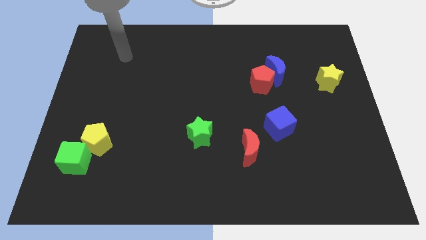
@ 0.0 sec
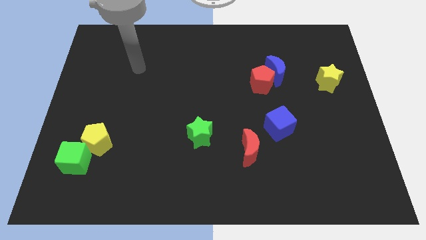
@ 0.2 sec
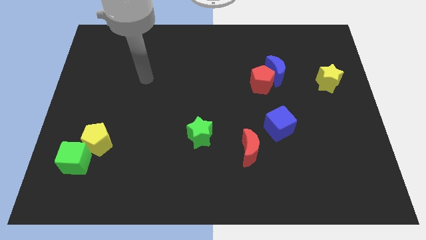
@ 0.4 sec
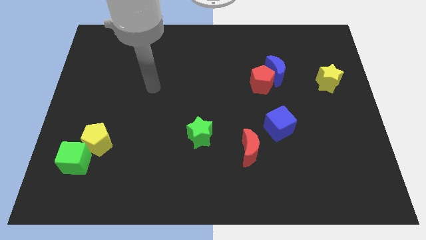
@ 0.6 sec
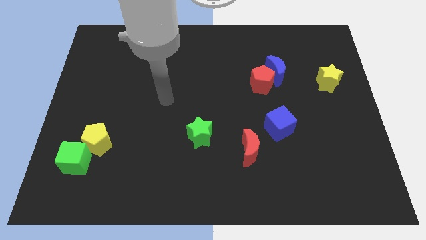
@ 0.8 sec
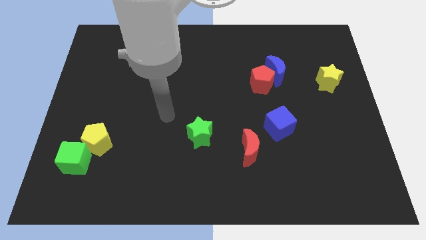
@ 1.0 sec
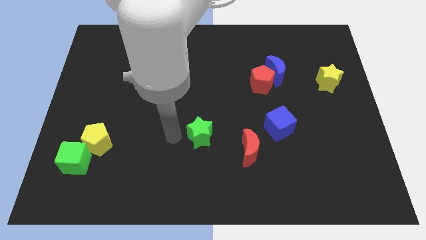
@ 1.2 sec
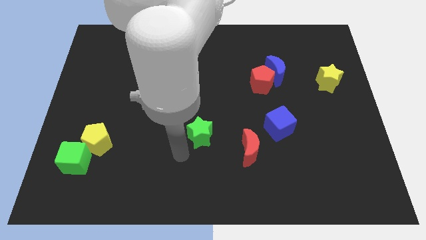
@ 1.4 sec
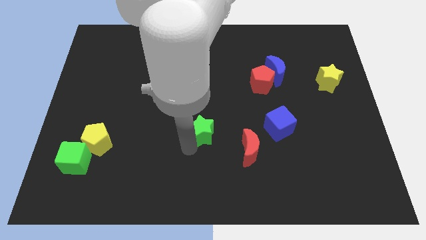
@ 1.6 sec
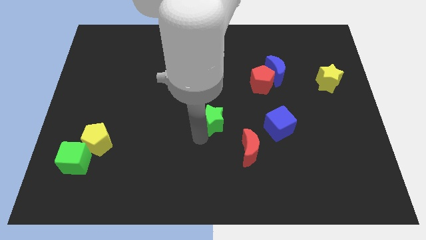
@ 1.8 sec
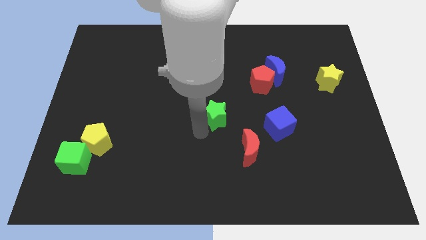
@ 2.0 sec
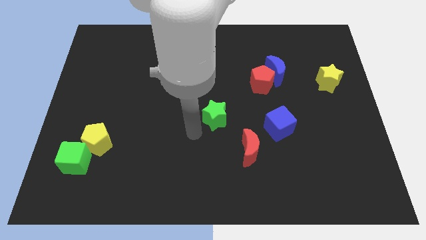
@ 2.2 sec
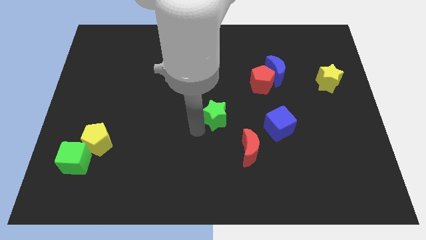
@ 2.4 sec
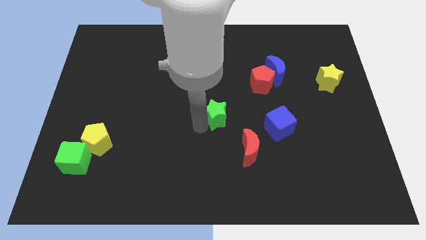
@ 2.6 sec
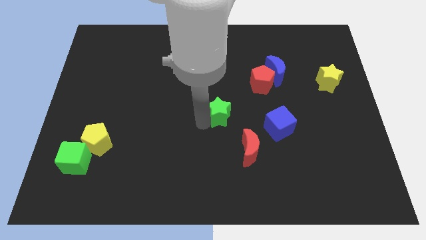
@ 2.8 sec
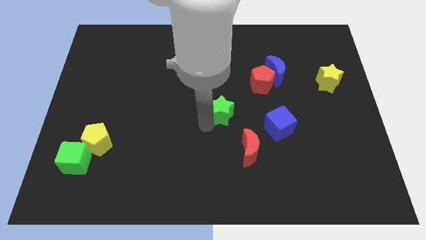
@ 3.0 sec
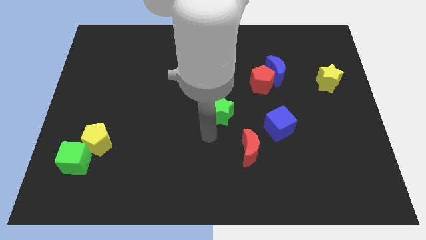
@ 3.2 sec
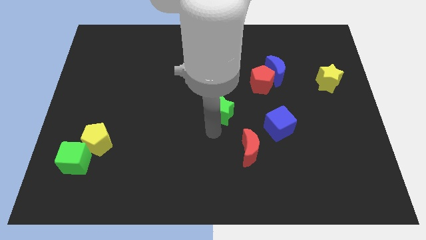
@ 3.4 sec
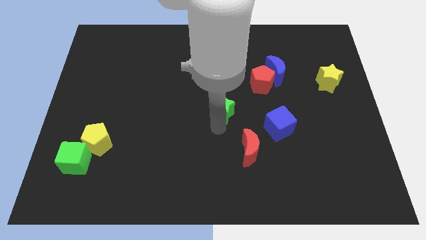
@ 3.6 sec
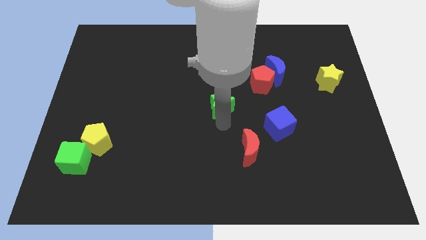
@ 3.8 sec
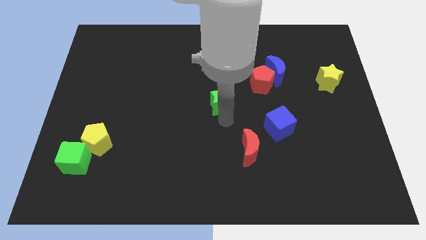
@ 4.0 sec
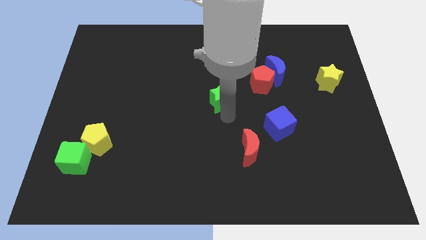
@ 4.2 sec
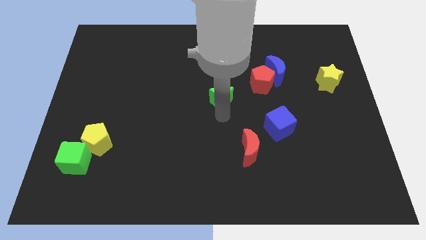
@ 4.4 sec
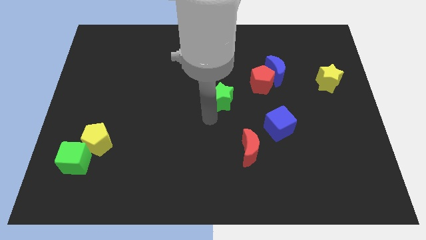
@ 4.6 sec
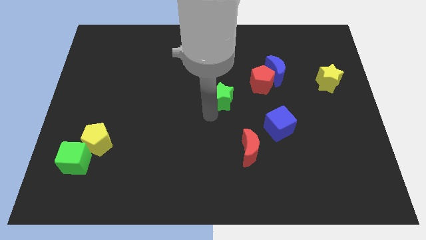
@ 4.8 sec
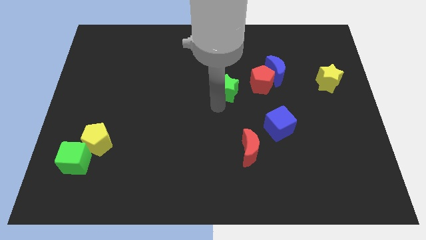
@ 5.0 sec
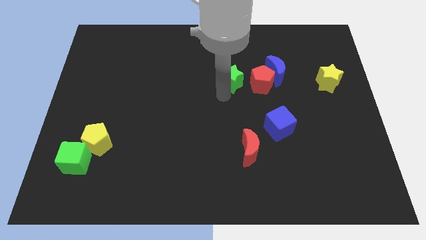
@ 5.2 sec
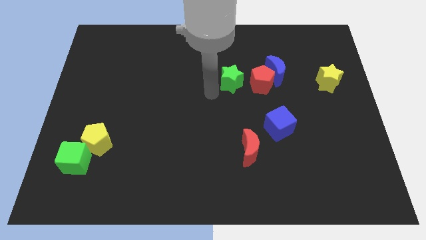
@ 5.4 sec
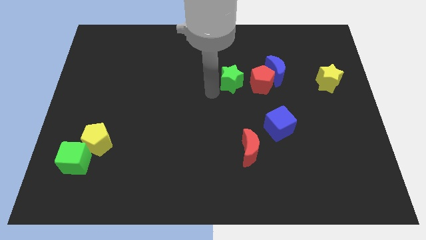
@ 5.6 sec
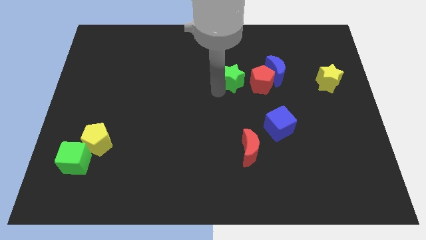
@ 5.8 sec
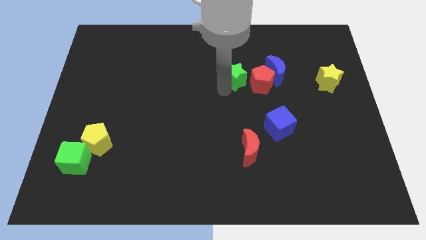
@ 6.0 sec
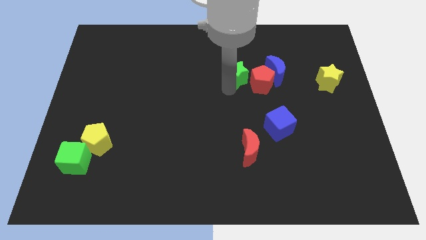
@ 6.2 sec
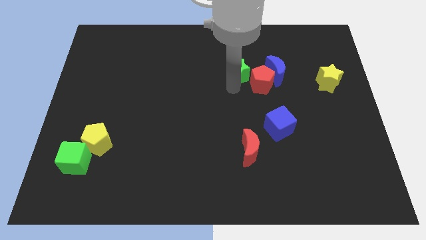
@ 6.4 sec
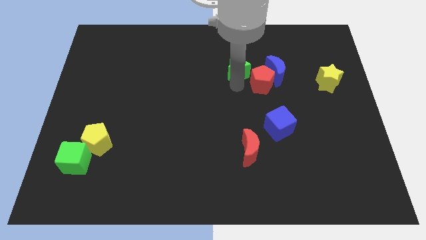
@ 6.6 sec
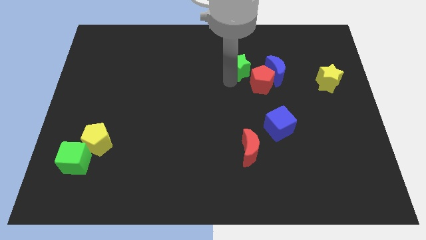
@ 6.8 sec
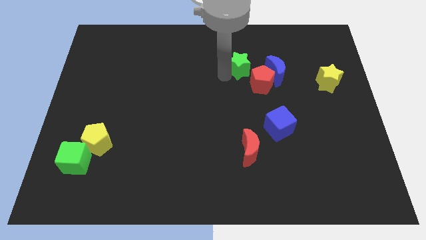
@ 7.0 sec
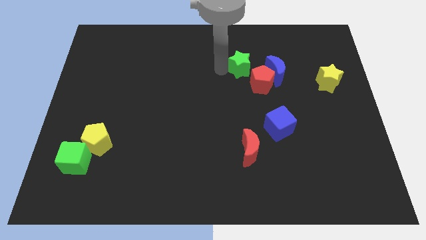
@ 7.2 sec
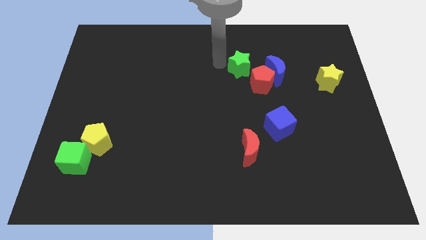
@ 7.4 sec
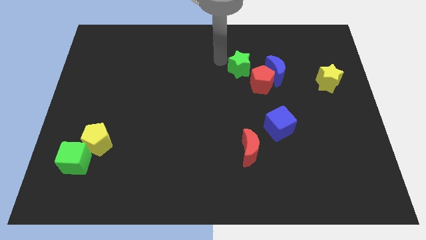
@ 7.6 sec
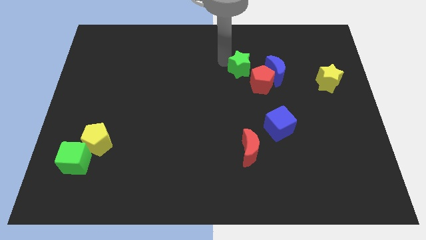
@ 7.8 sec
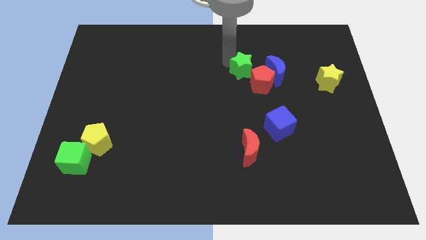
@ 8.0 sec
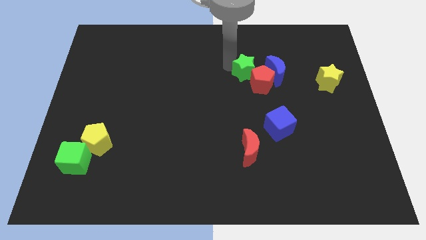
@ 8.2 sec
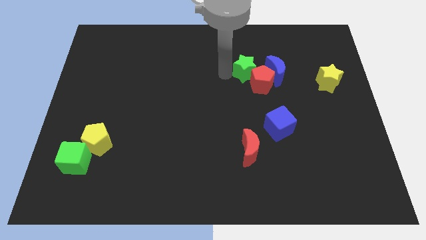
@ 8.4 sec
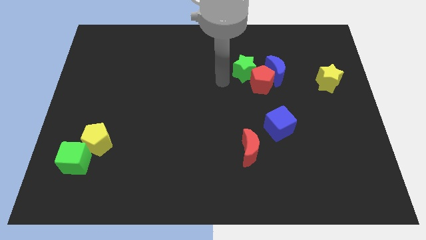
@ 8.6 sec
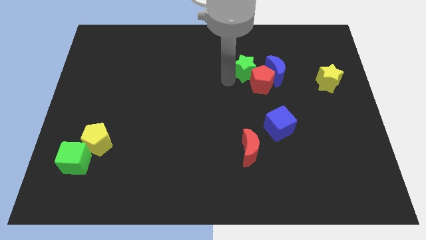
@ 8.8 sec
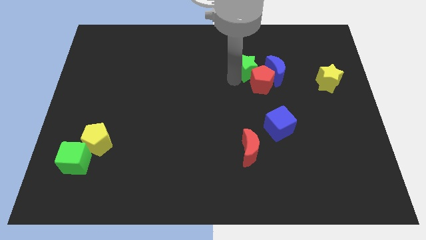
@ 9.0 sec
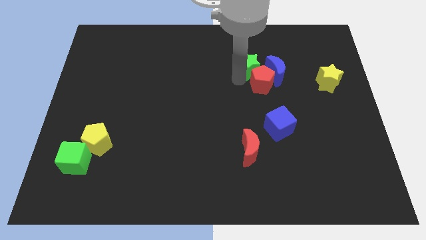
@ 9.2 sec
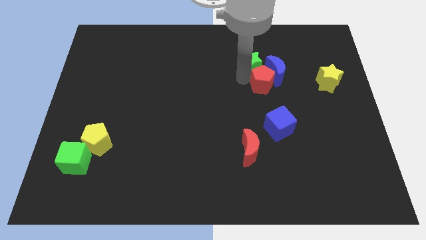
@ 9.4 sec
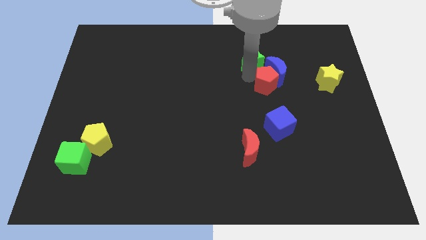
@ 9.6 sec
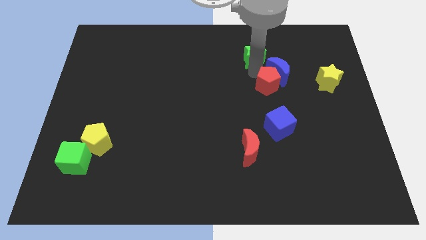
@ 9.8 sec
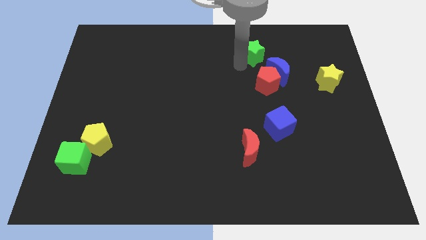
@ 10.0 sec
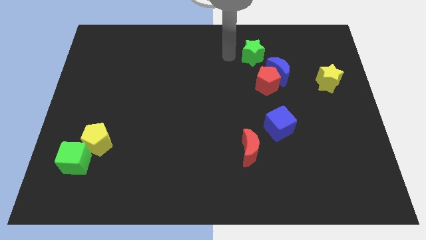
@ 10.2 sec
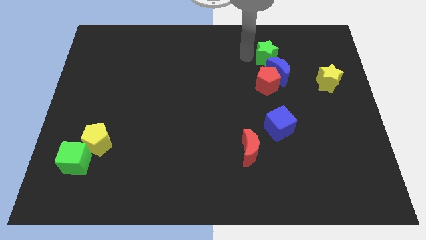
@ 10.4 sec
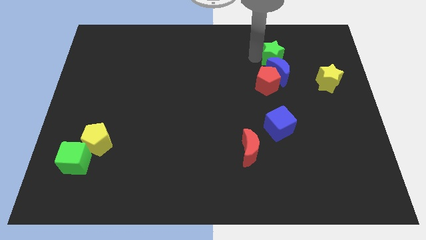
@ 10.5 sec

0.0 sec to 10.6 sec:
put the green star diagonally up and to the right of the blue moon

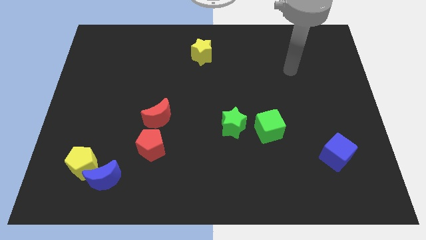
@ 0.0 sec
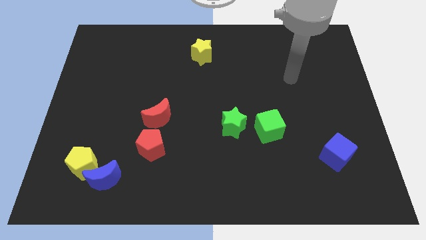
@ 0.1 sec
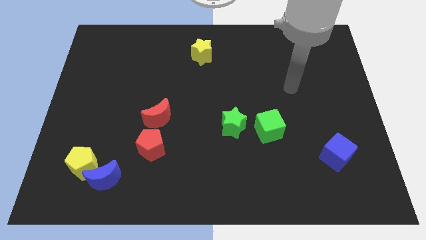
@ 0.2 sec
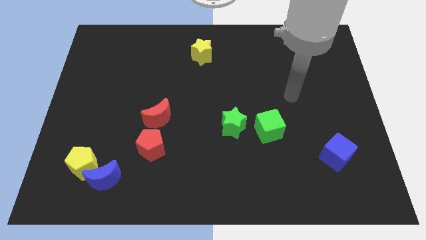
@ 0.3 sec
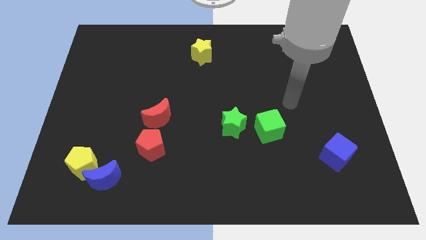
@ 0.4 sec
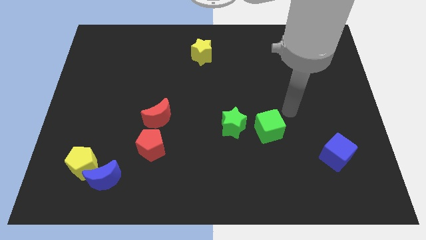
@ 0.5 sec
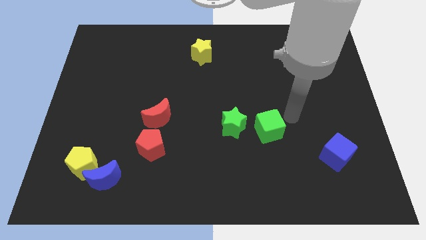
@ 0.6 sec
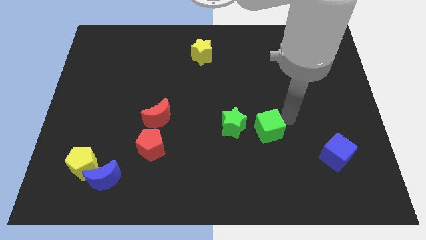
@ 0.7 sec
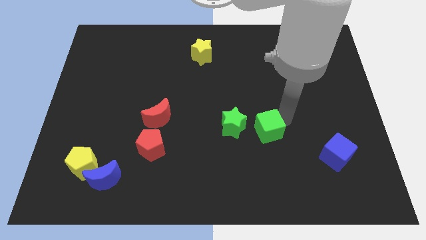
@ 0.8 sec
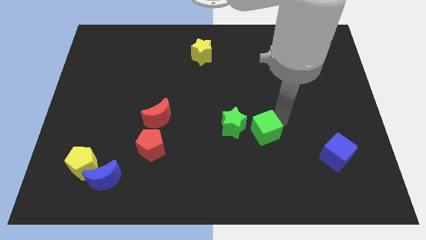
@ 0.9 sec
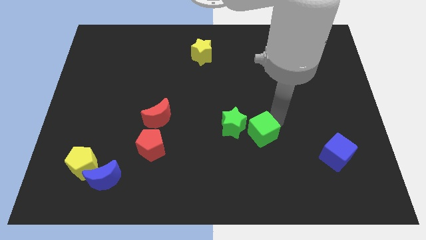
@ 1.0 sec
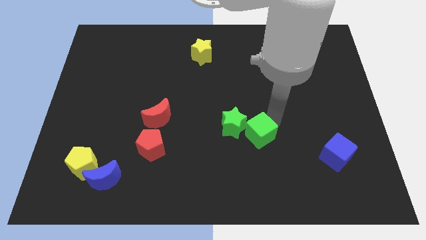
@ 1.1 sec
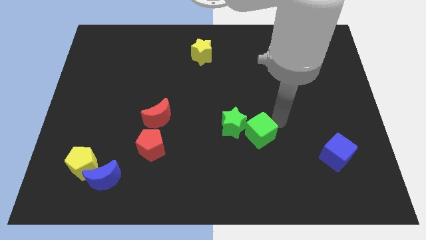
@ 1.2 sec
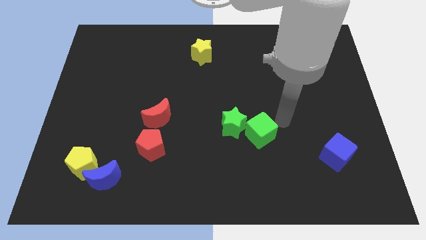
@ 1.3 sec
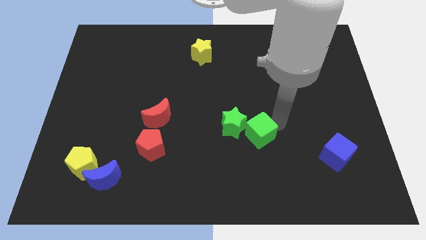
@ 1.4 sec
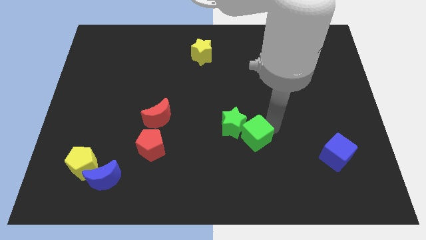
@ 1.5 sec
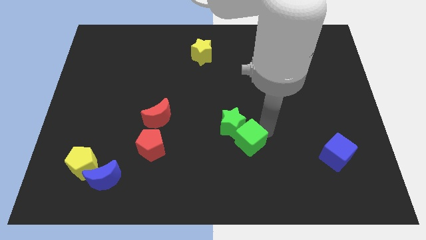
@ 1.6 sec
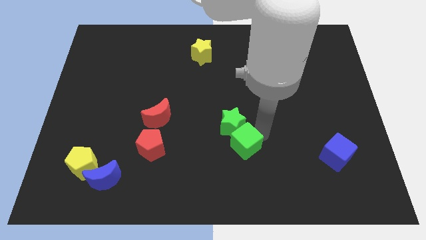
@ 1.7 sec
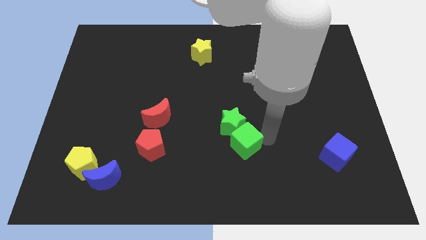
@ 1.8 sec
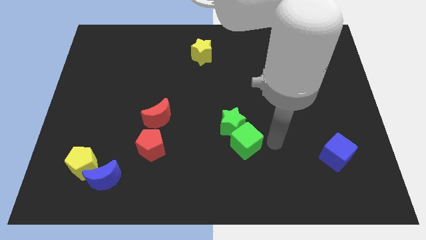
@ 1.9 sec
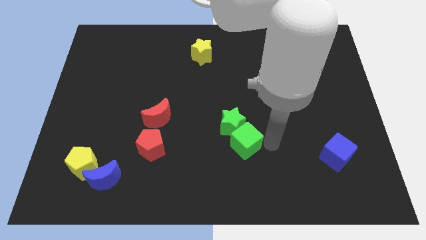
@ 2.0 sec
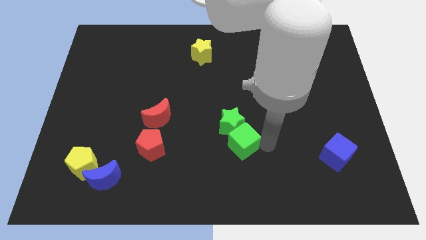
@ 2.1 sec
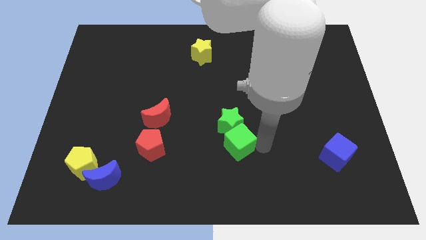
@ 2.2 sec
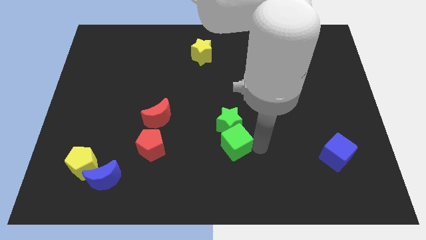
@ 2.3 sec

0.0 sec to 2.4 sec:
push the green cube to the bottom left side of the green star
